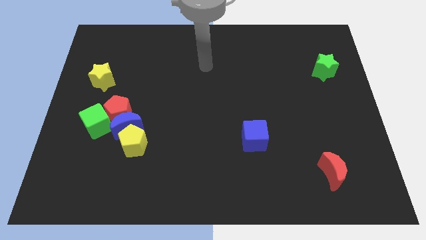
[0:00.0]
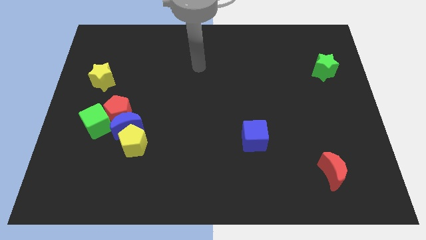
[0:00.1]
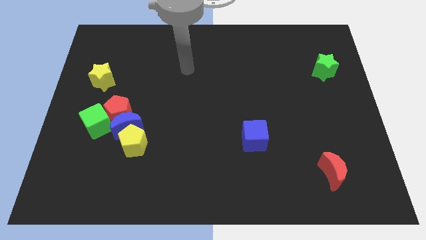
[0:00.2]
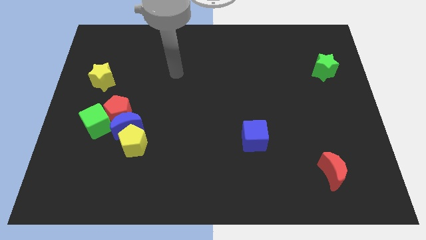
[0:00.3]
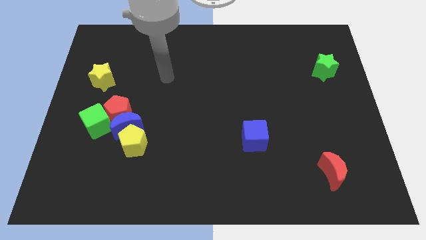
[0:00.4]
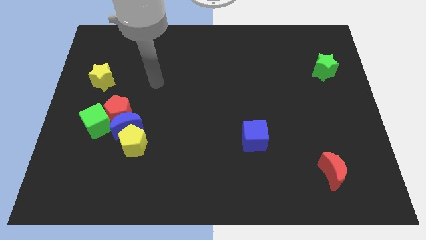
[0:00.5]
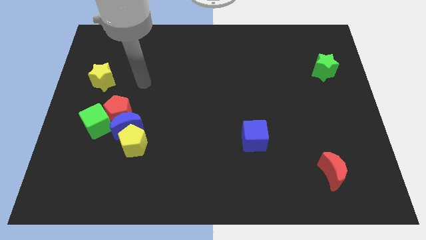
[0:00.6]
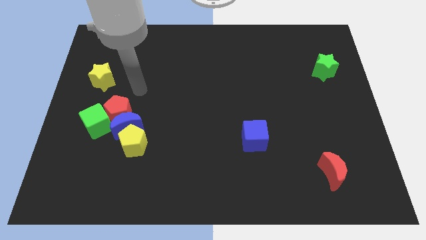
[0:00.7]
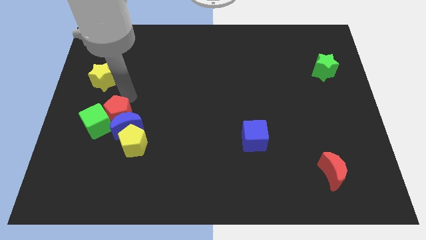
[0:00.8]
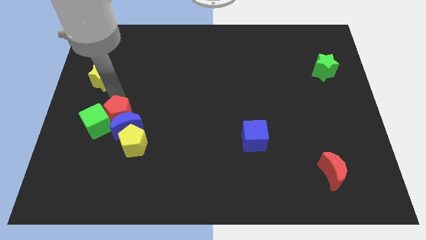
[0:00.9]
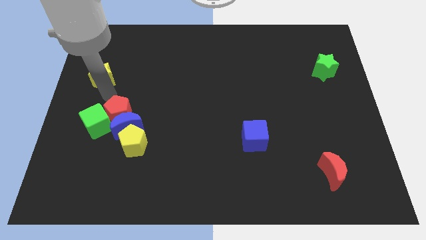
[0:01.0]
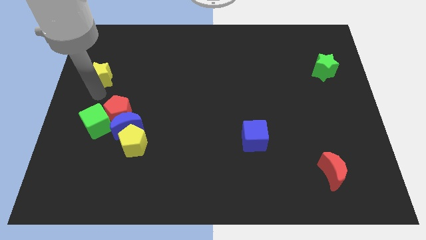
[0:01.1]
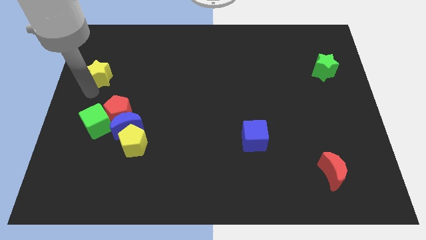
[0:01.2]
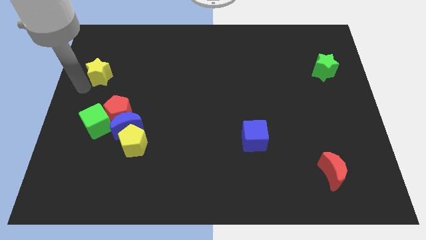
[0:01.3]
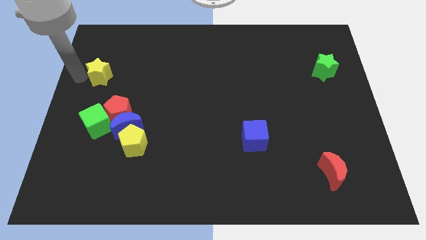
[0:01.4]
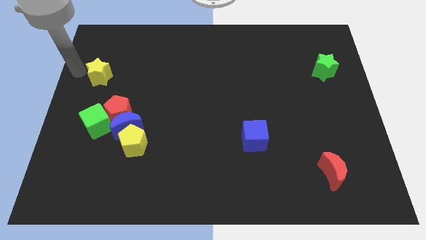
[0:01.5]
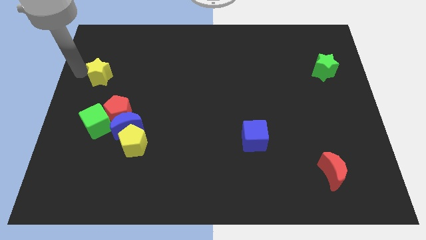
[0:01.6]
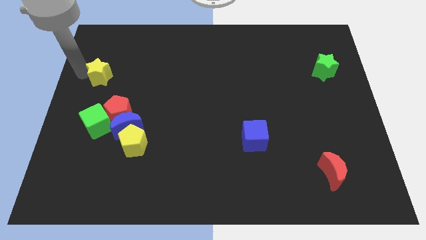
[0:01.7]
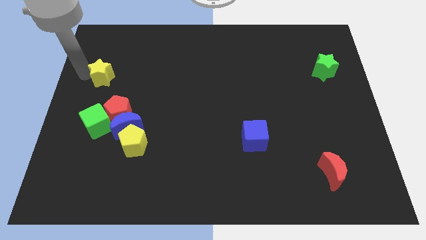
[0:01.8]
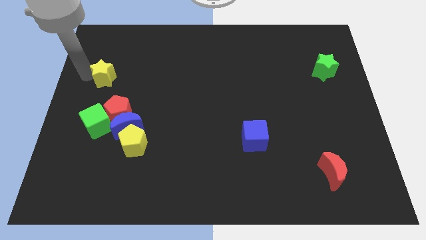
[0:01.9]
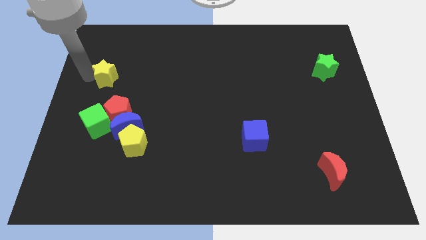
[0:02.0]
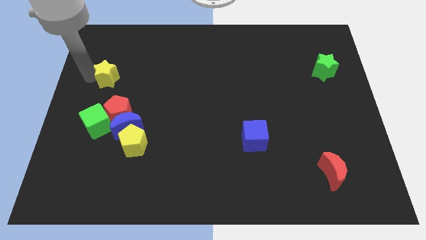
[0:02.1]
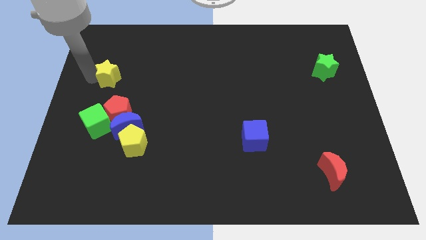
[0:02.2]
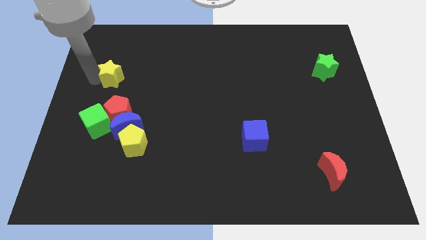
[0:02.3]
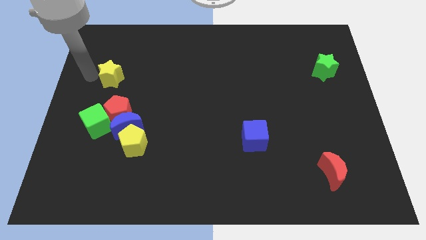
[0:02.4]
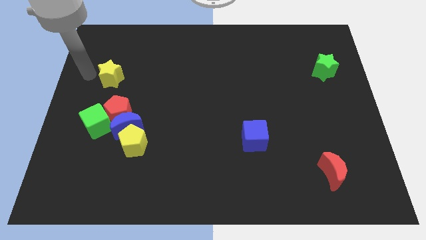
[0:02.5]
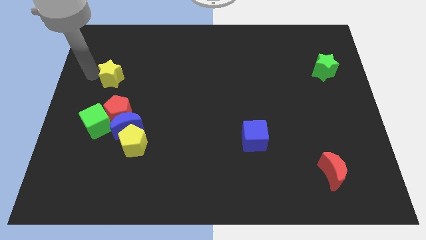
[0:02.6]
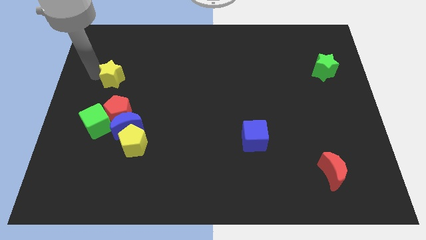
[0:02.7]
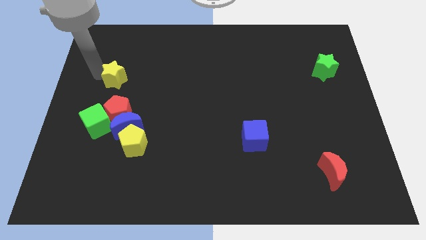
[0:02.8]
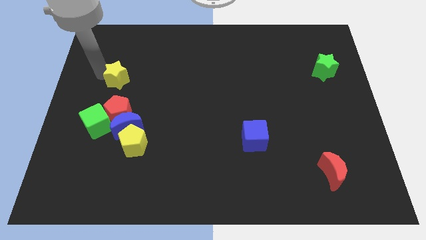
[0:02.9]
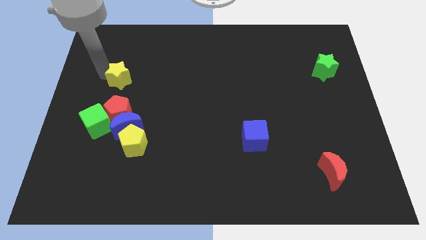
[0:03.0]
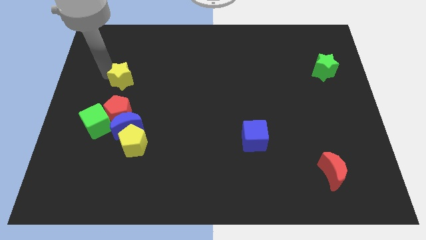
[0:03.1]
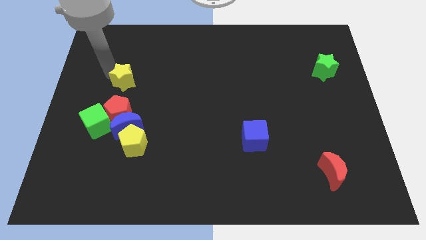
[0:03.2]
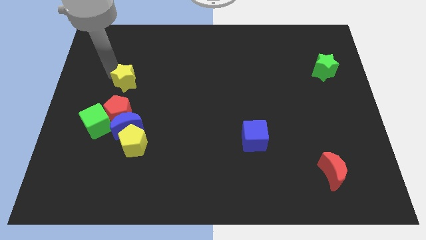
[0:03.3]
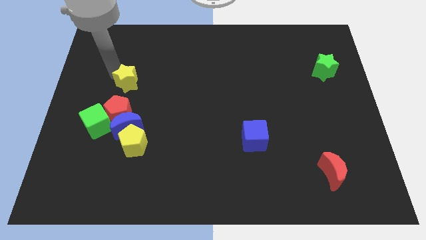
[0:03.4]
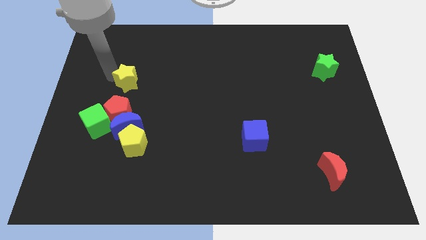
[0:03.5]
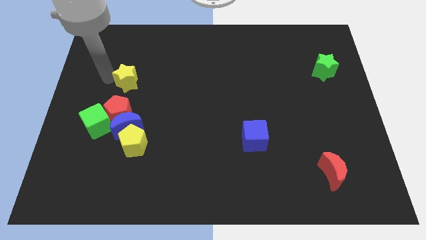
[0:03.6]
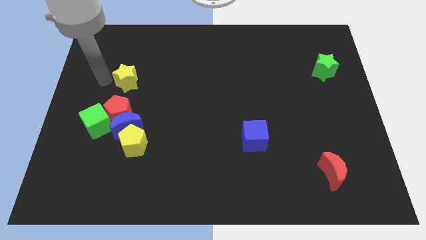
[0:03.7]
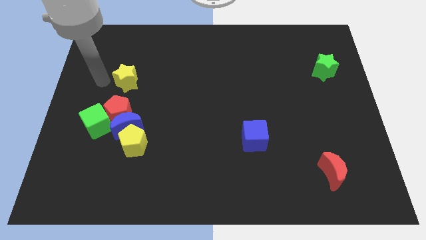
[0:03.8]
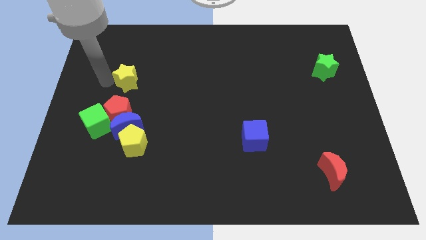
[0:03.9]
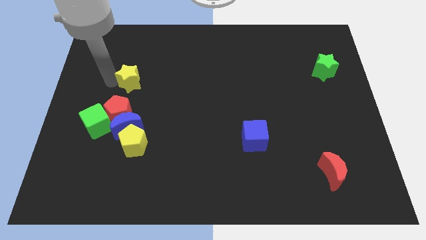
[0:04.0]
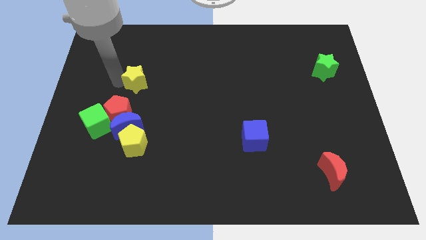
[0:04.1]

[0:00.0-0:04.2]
push the yellow star right slightly

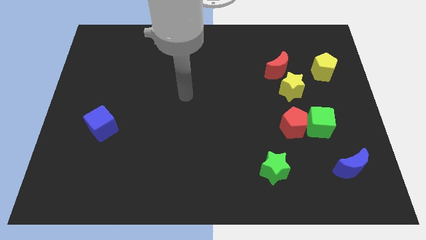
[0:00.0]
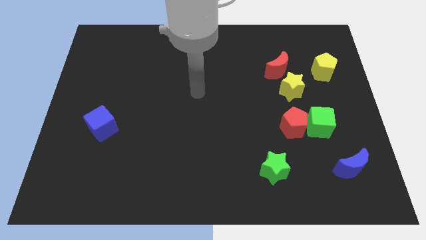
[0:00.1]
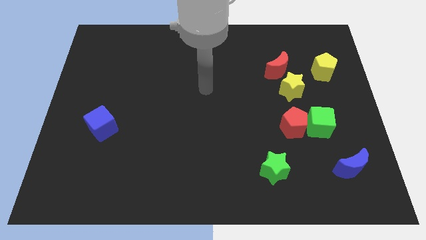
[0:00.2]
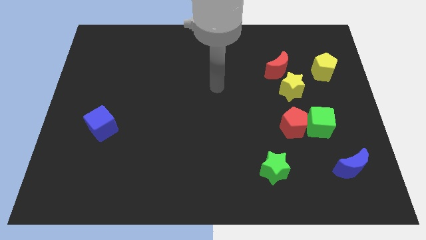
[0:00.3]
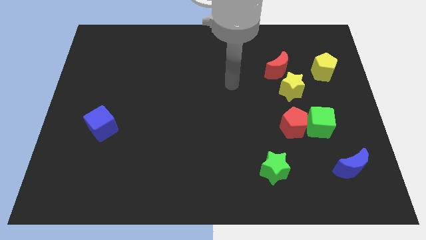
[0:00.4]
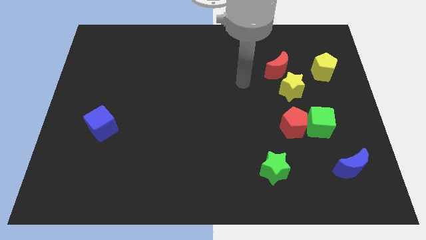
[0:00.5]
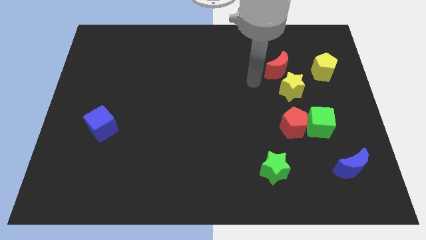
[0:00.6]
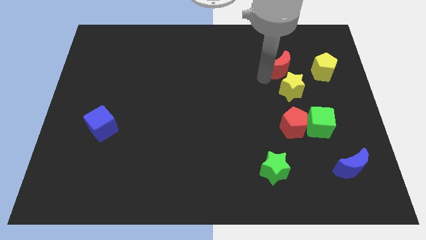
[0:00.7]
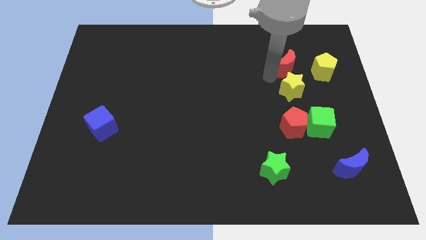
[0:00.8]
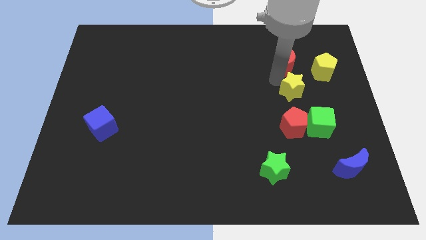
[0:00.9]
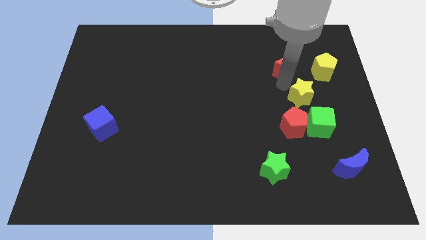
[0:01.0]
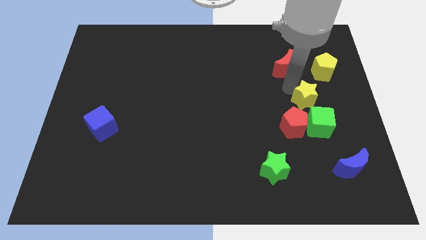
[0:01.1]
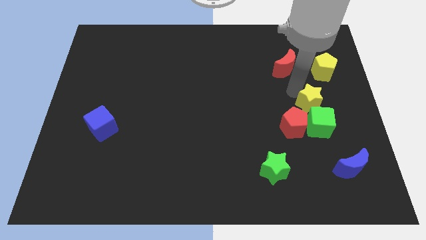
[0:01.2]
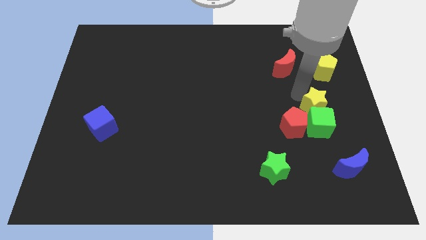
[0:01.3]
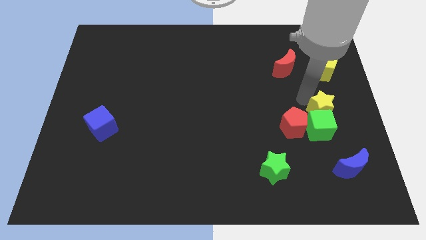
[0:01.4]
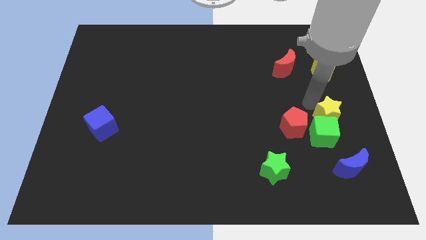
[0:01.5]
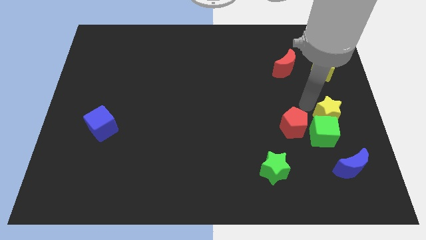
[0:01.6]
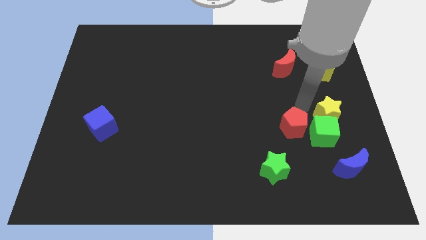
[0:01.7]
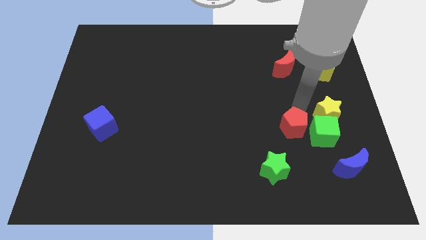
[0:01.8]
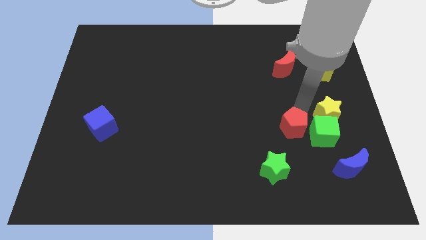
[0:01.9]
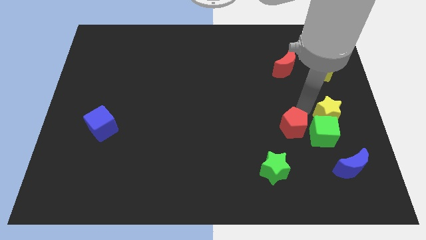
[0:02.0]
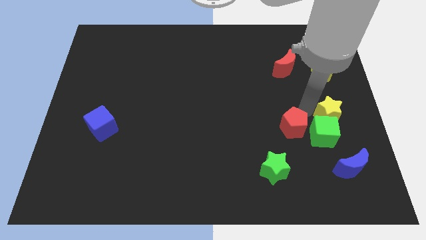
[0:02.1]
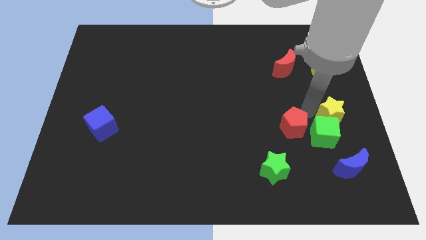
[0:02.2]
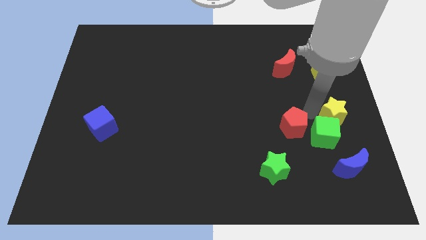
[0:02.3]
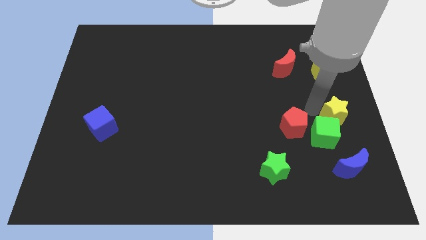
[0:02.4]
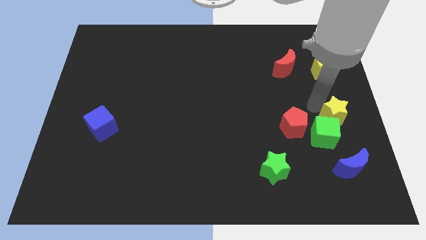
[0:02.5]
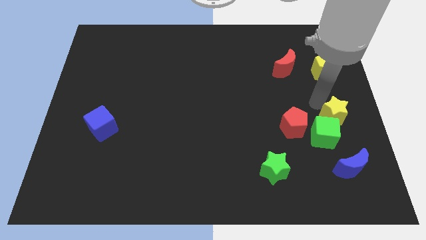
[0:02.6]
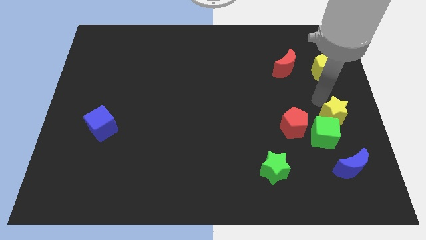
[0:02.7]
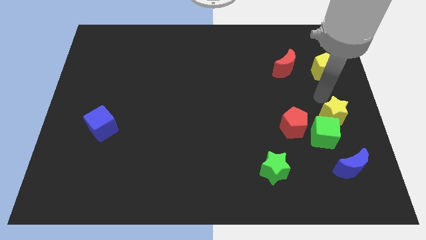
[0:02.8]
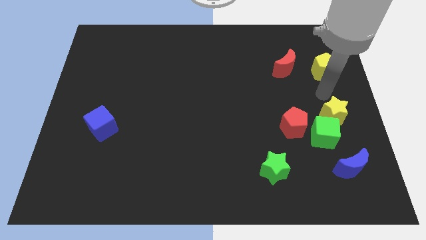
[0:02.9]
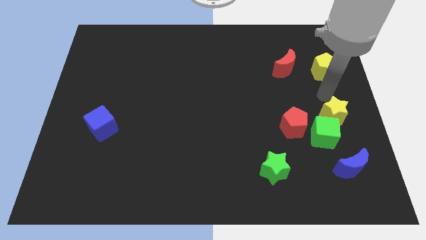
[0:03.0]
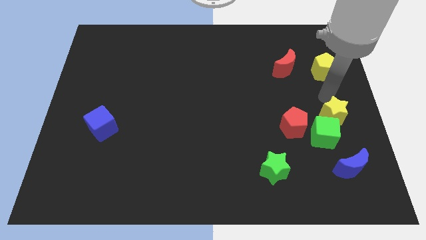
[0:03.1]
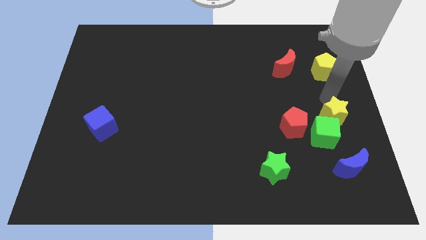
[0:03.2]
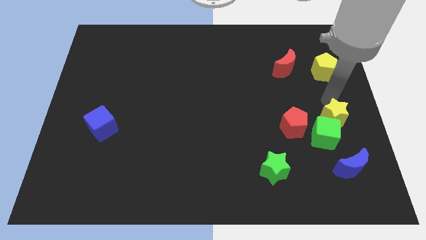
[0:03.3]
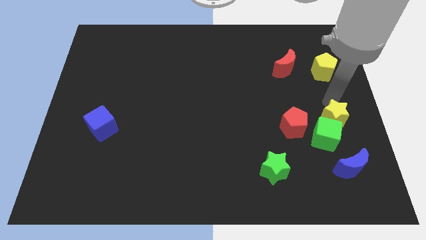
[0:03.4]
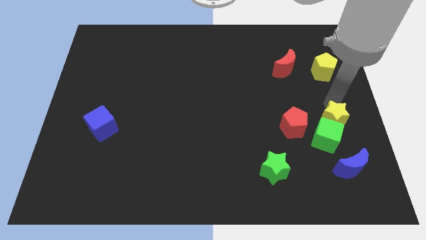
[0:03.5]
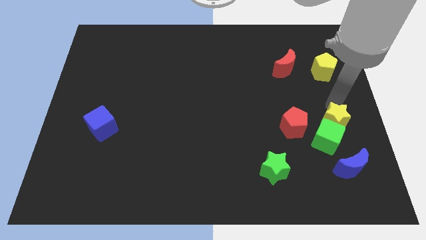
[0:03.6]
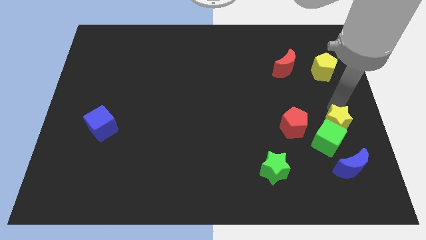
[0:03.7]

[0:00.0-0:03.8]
slightly slide the yellow star down

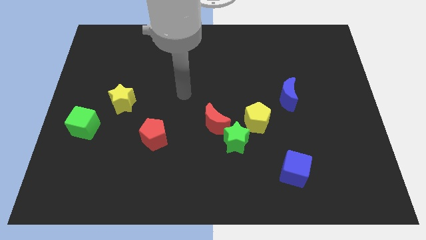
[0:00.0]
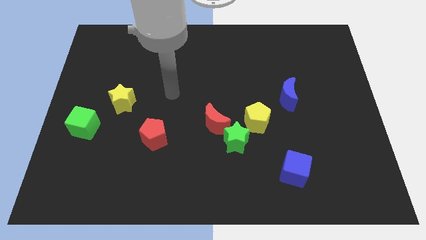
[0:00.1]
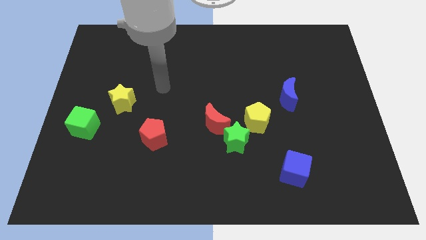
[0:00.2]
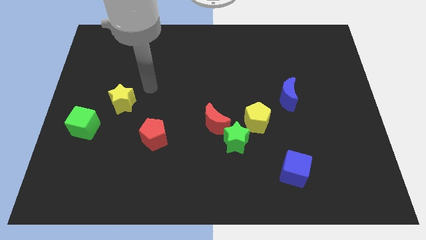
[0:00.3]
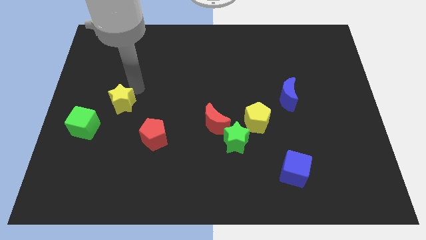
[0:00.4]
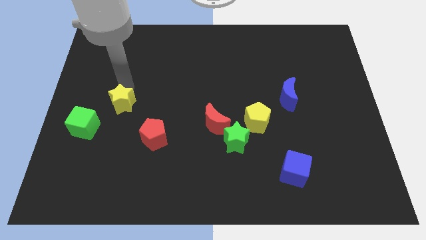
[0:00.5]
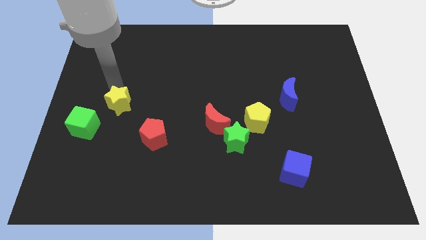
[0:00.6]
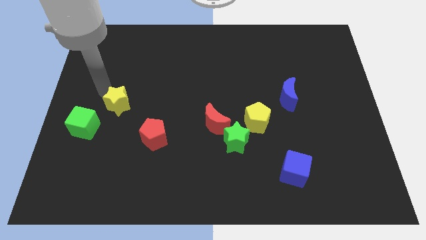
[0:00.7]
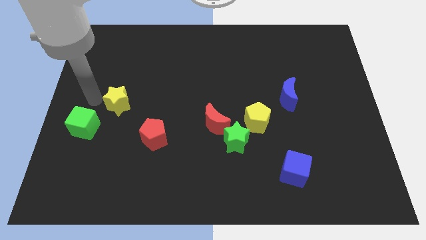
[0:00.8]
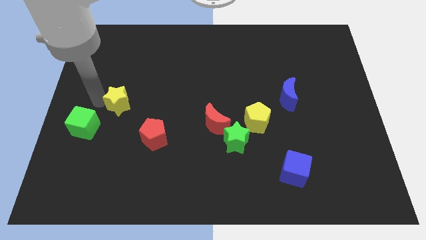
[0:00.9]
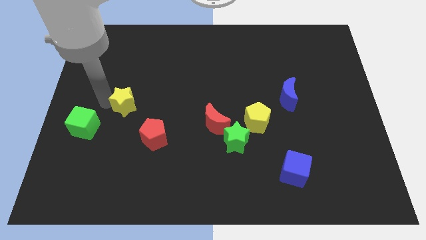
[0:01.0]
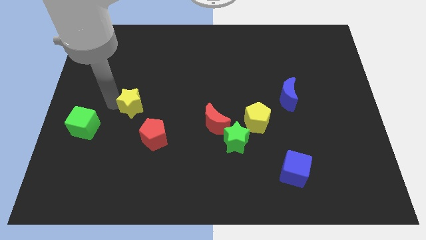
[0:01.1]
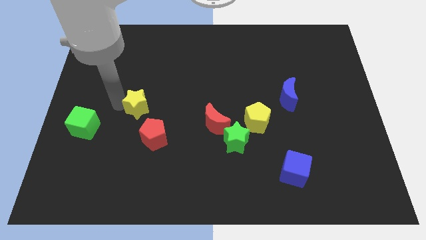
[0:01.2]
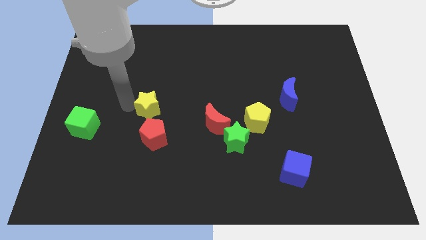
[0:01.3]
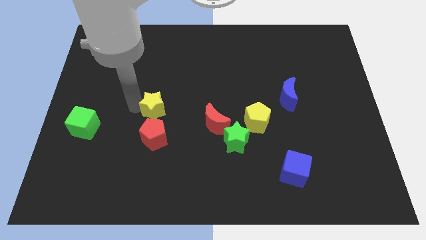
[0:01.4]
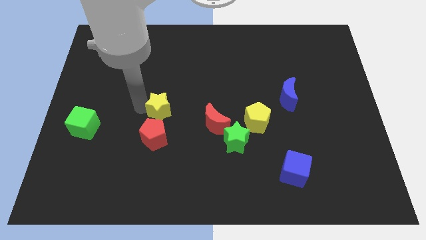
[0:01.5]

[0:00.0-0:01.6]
push the yellow star down and to the right diagonally slightly
